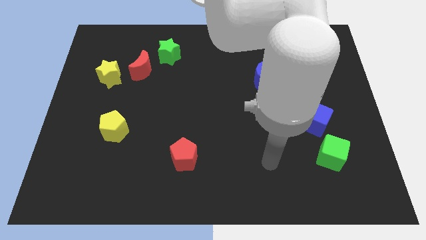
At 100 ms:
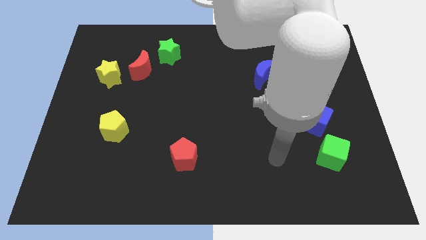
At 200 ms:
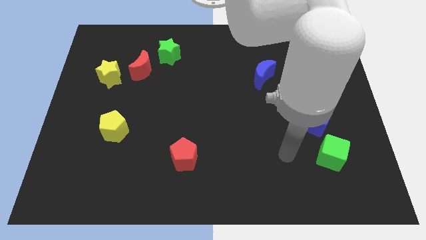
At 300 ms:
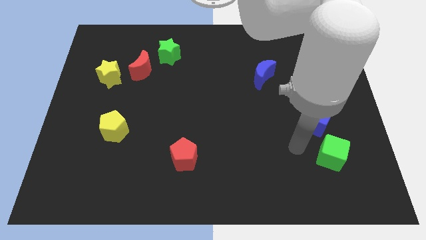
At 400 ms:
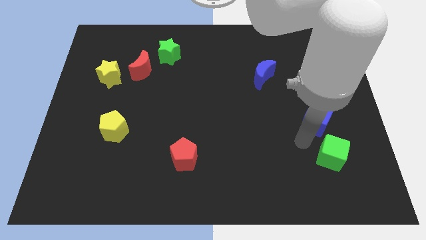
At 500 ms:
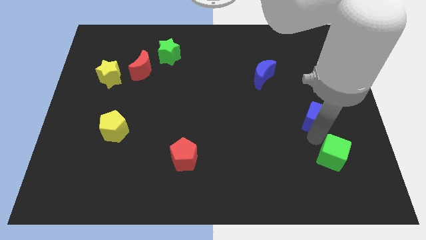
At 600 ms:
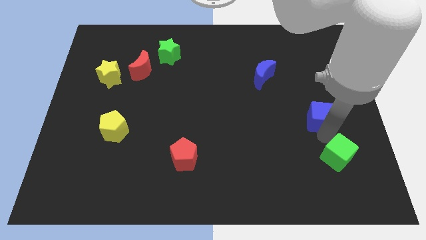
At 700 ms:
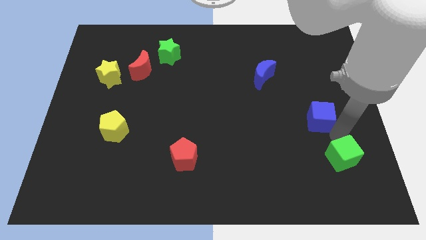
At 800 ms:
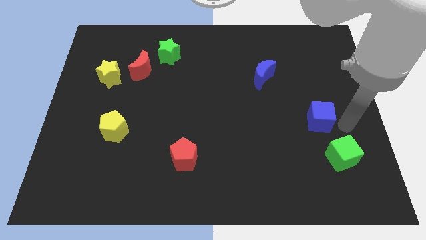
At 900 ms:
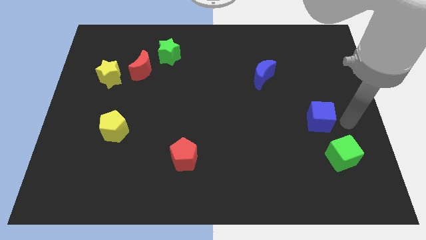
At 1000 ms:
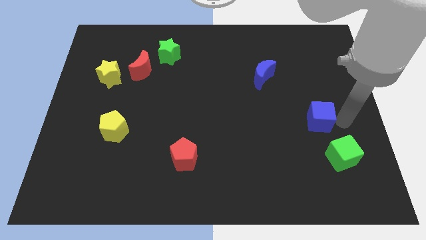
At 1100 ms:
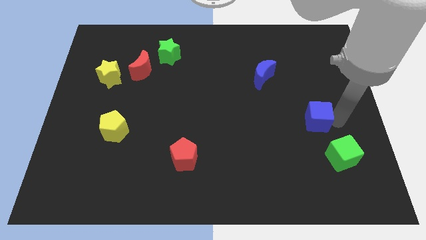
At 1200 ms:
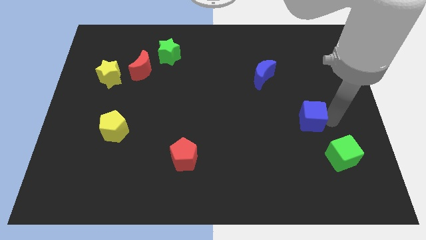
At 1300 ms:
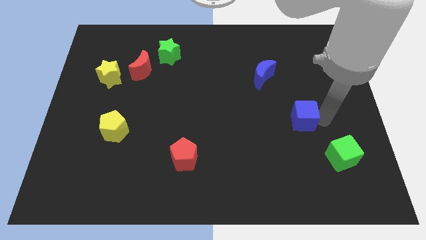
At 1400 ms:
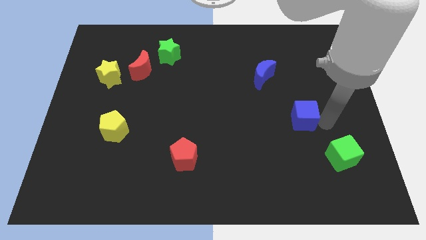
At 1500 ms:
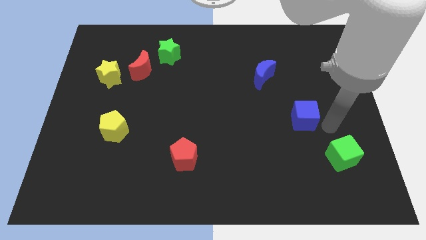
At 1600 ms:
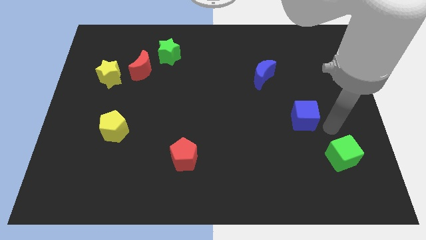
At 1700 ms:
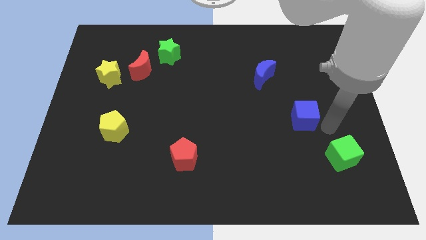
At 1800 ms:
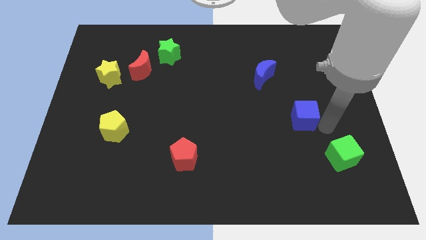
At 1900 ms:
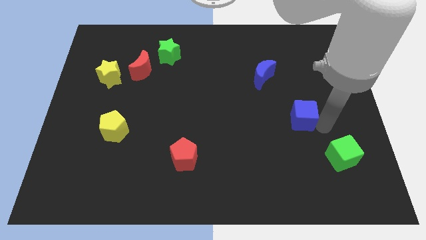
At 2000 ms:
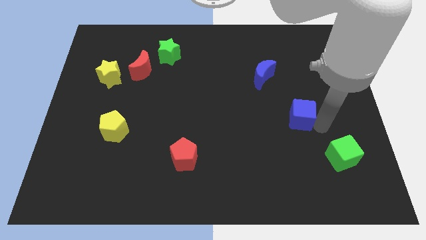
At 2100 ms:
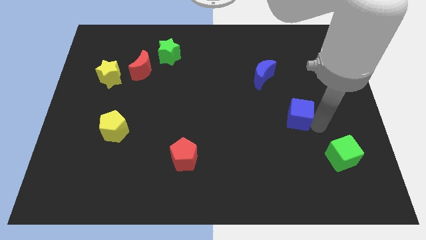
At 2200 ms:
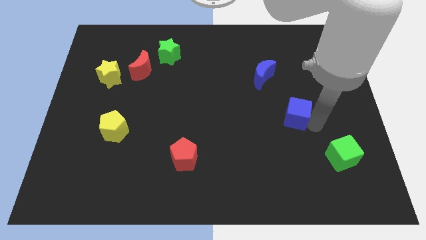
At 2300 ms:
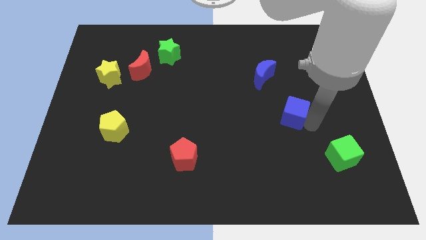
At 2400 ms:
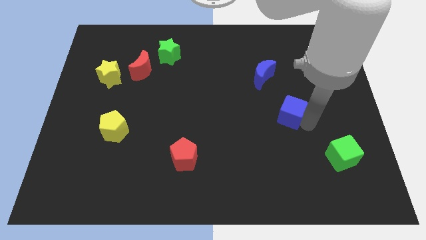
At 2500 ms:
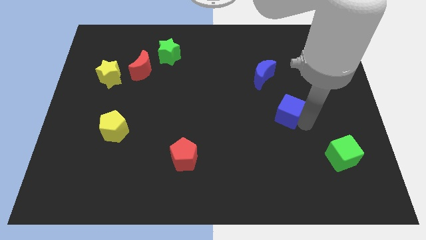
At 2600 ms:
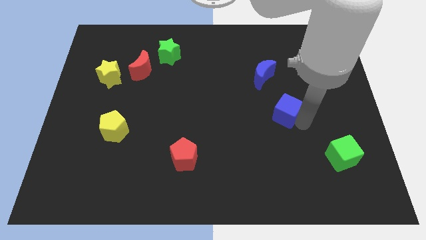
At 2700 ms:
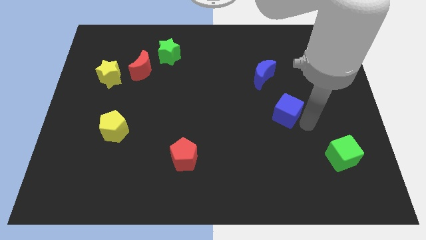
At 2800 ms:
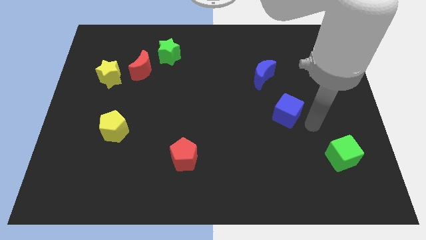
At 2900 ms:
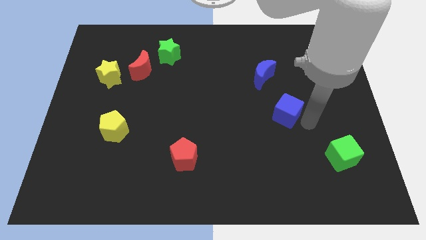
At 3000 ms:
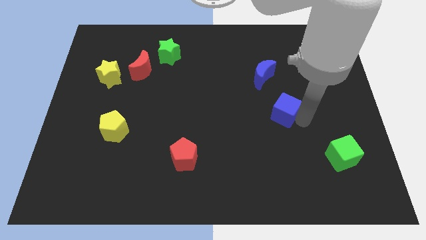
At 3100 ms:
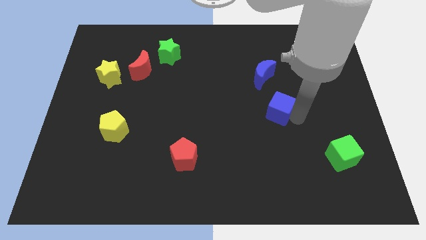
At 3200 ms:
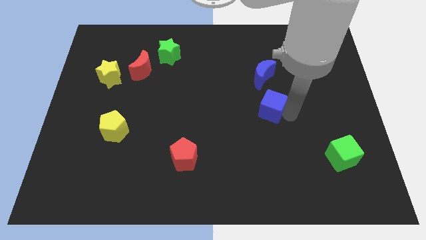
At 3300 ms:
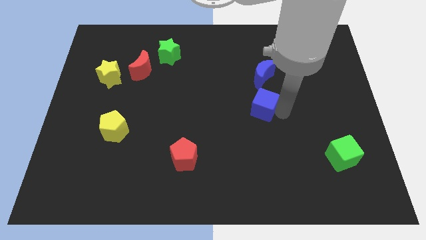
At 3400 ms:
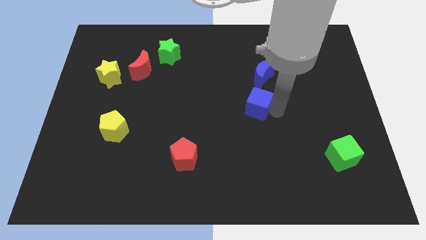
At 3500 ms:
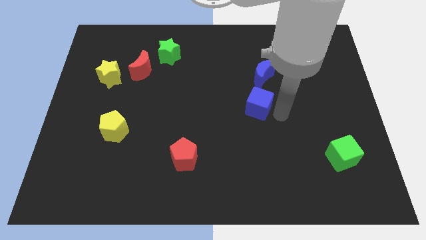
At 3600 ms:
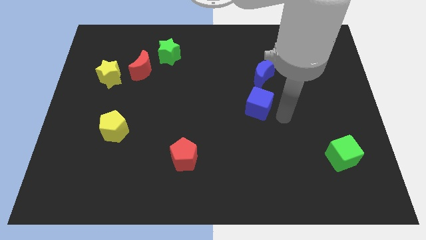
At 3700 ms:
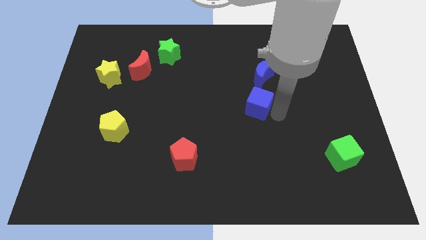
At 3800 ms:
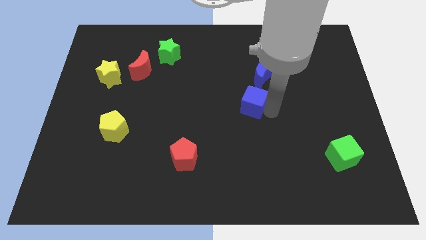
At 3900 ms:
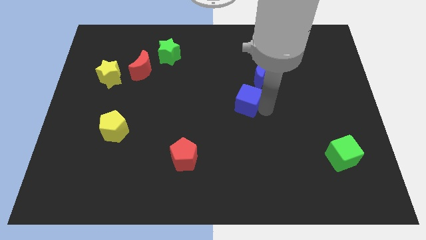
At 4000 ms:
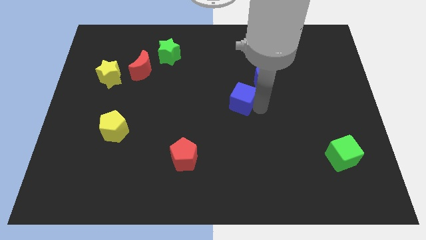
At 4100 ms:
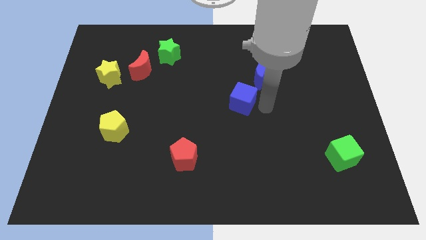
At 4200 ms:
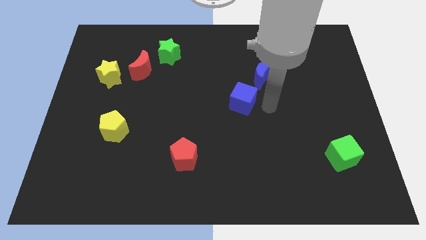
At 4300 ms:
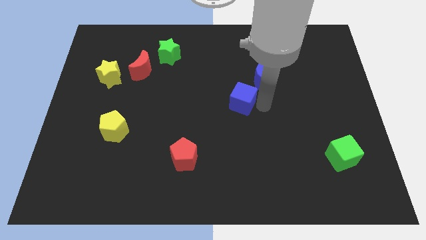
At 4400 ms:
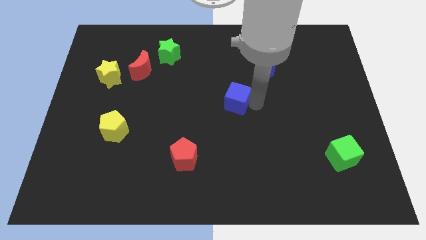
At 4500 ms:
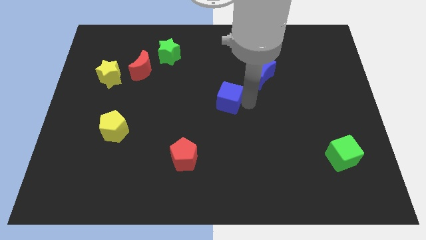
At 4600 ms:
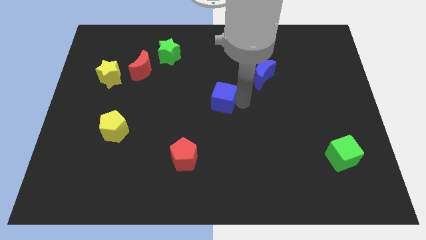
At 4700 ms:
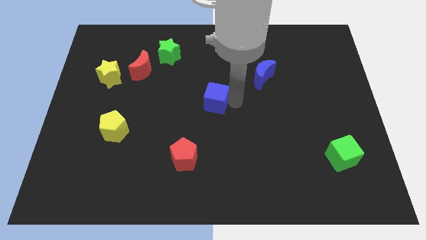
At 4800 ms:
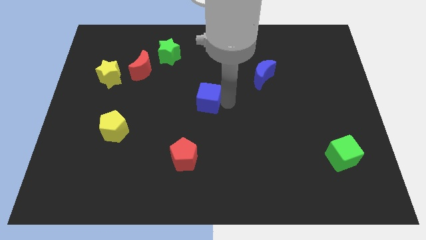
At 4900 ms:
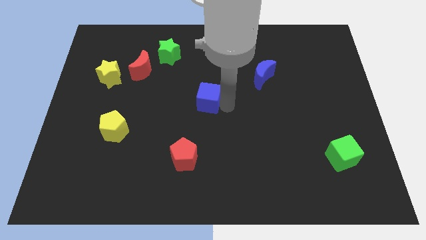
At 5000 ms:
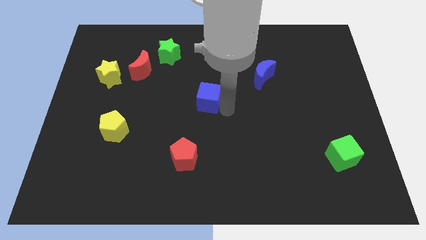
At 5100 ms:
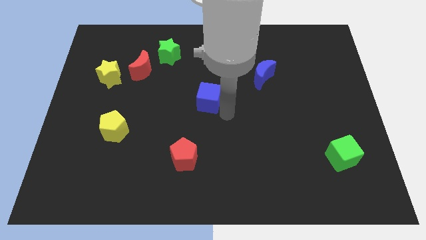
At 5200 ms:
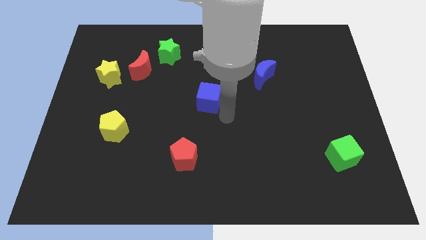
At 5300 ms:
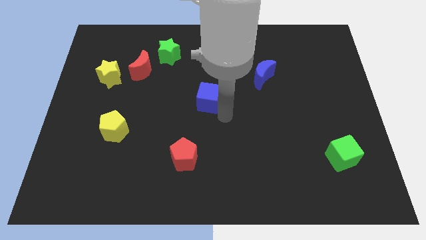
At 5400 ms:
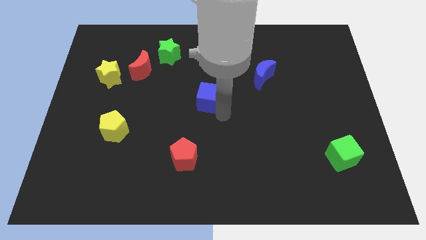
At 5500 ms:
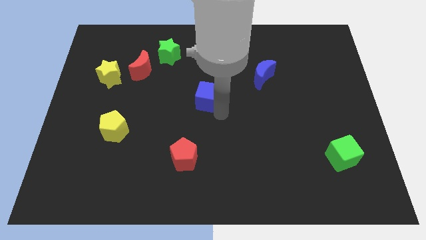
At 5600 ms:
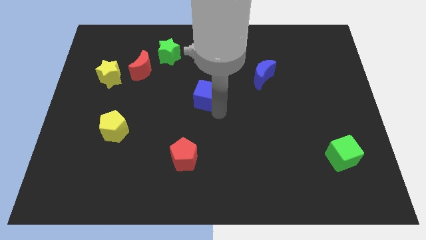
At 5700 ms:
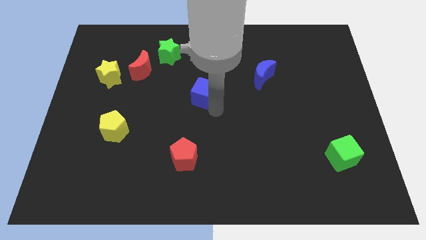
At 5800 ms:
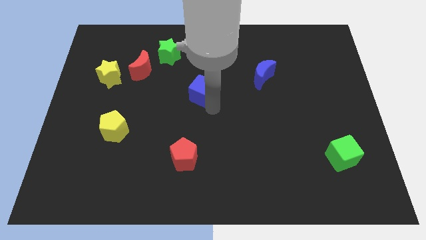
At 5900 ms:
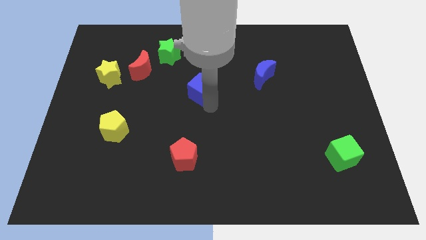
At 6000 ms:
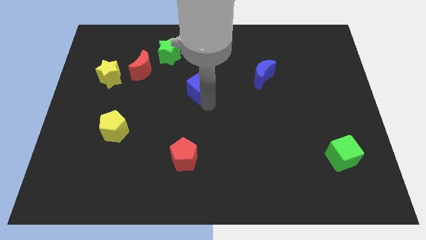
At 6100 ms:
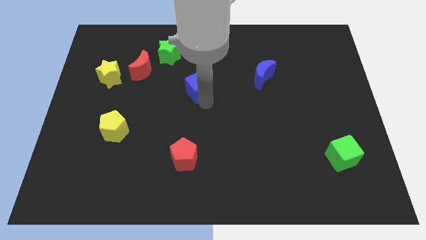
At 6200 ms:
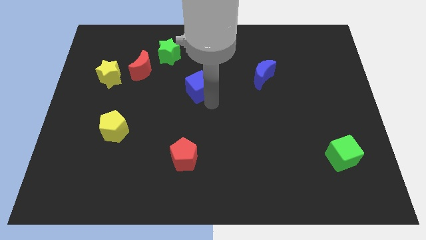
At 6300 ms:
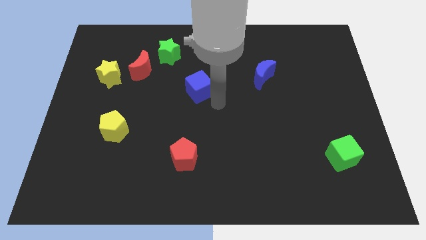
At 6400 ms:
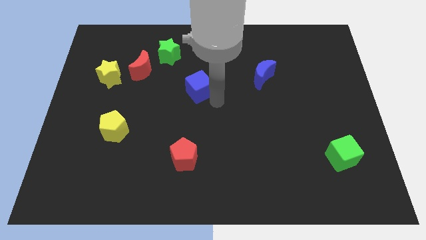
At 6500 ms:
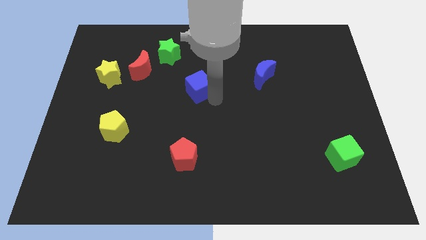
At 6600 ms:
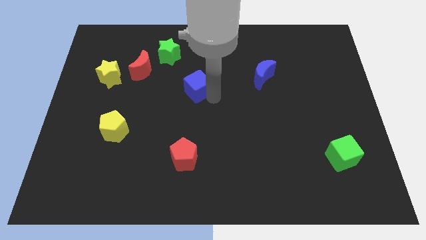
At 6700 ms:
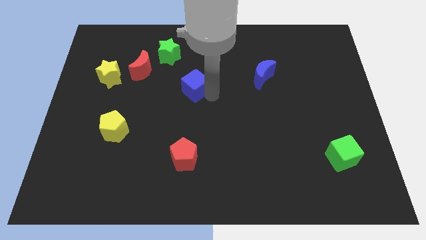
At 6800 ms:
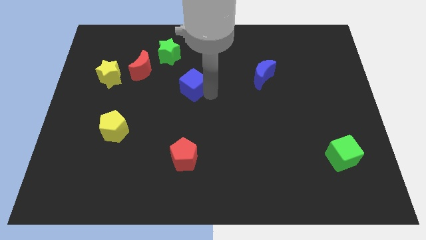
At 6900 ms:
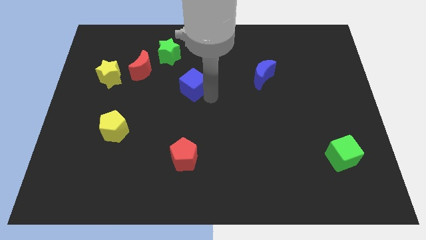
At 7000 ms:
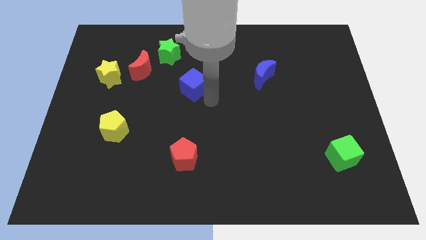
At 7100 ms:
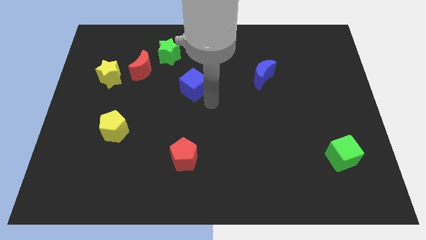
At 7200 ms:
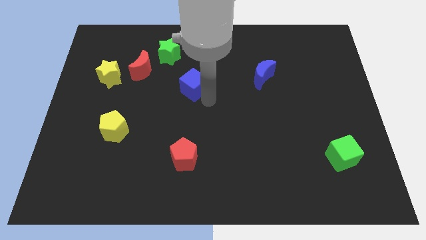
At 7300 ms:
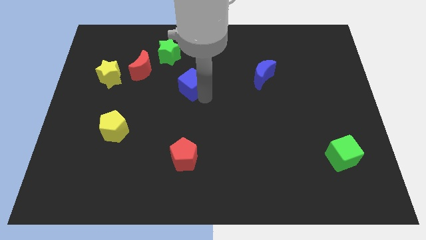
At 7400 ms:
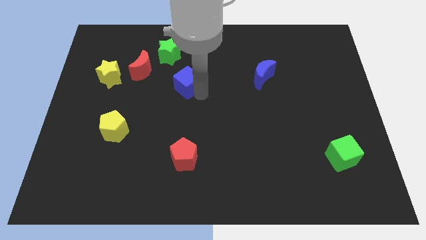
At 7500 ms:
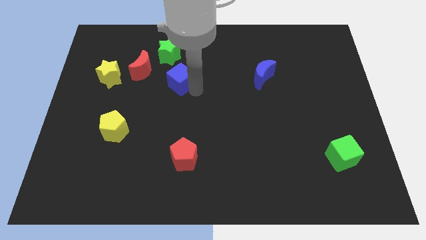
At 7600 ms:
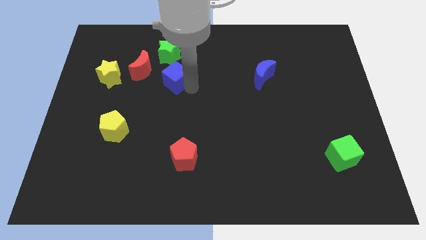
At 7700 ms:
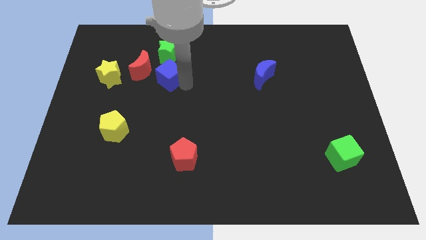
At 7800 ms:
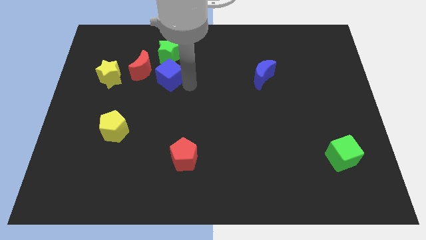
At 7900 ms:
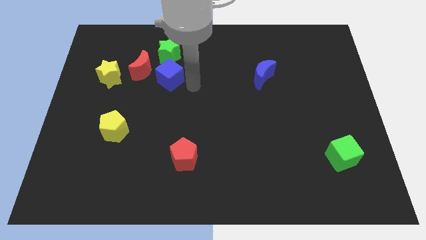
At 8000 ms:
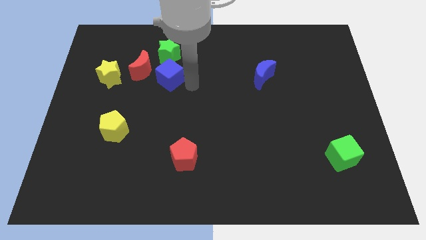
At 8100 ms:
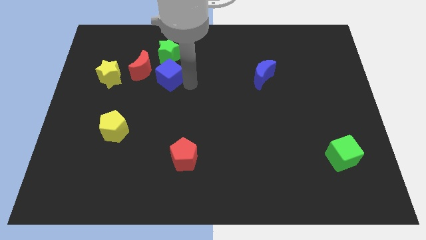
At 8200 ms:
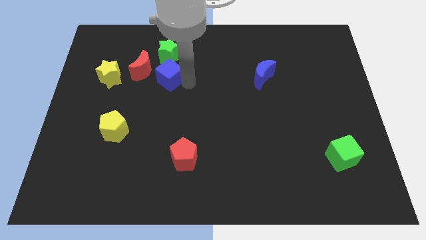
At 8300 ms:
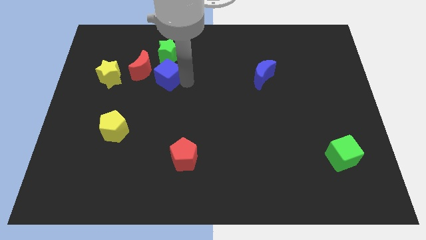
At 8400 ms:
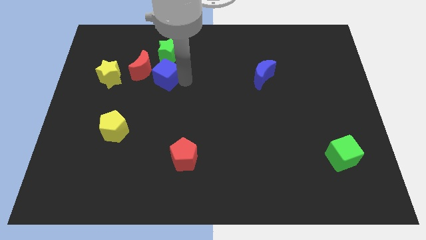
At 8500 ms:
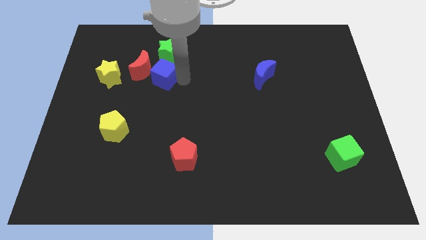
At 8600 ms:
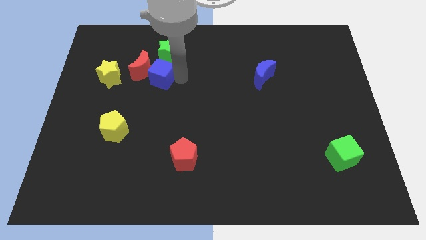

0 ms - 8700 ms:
slide the blue cube to the red moon
